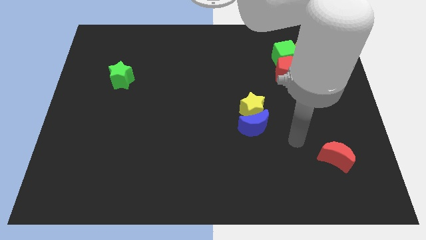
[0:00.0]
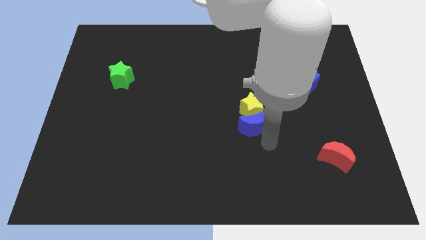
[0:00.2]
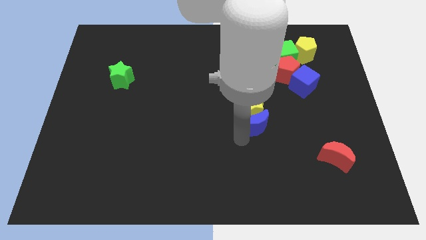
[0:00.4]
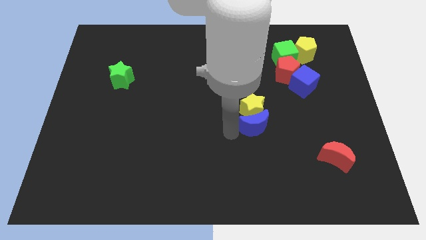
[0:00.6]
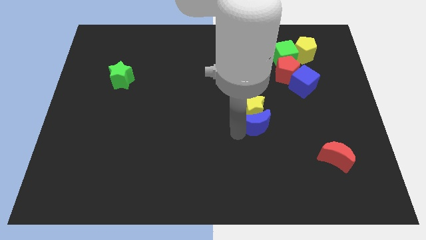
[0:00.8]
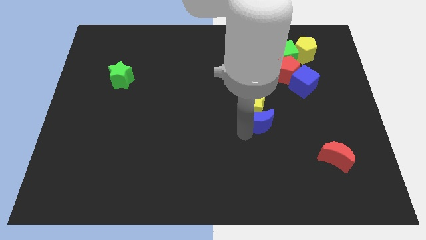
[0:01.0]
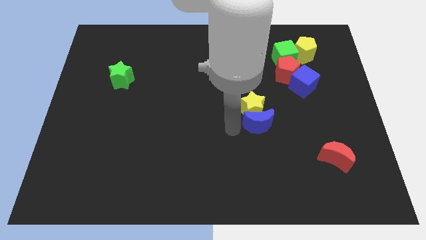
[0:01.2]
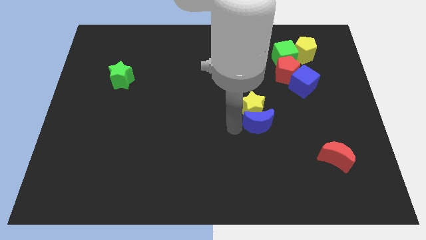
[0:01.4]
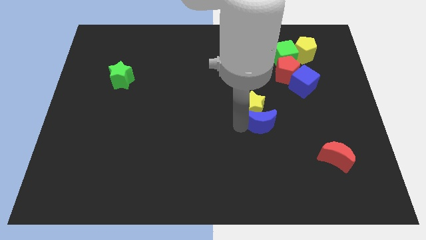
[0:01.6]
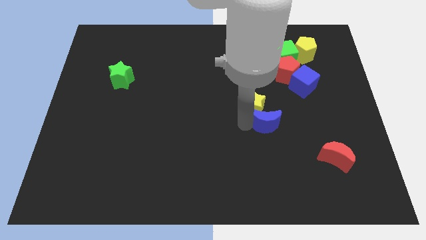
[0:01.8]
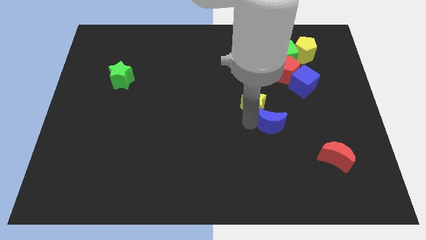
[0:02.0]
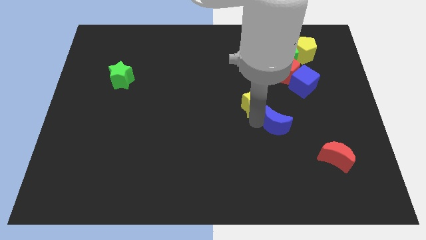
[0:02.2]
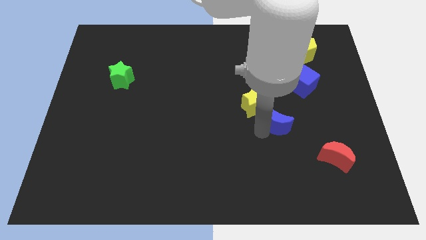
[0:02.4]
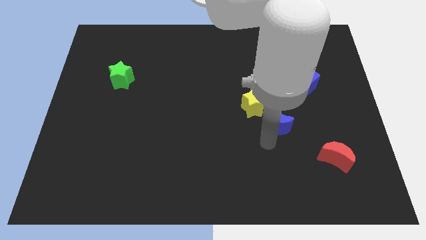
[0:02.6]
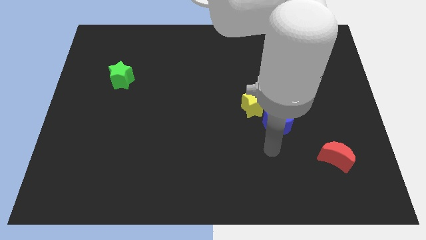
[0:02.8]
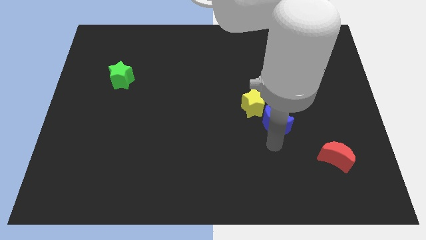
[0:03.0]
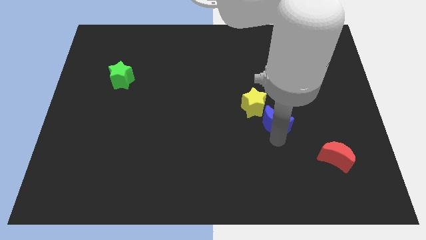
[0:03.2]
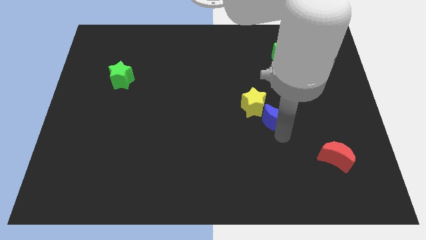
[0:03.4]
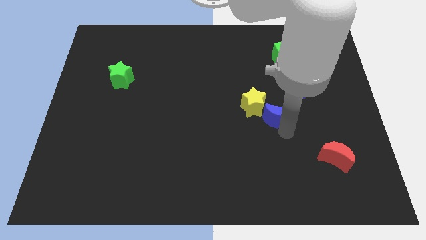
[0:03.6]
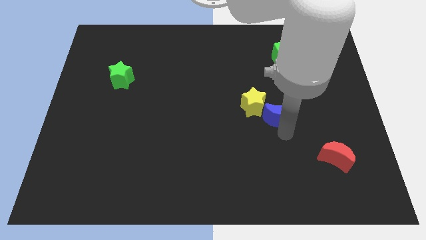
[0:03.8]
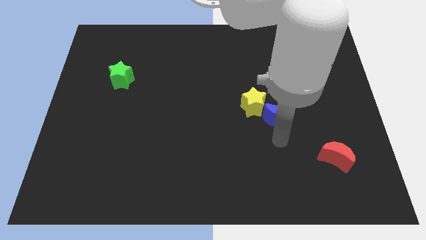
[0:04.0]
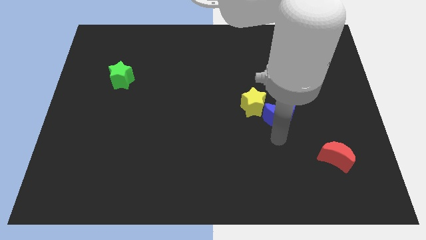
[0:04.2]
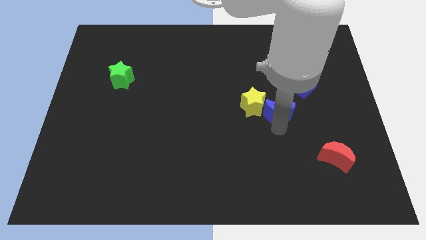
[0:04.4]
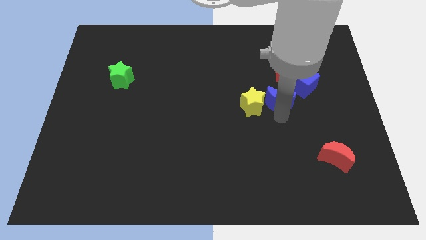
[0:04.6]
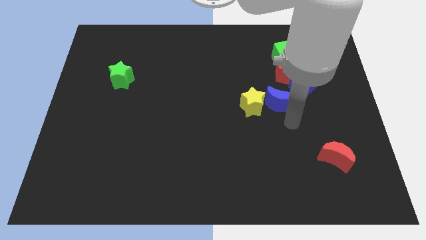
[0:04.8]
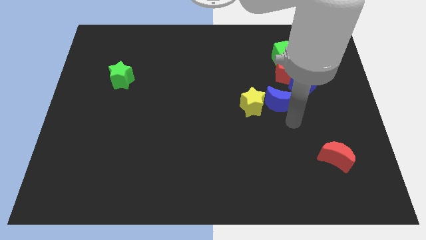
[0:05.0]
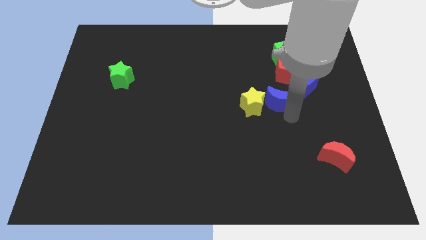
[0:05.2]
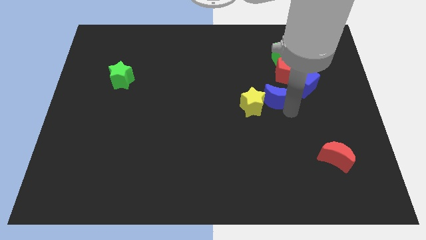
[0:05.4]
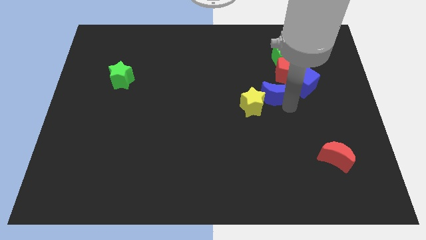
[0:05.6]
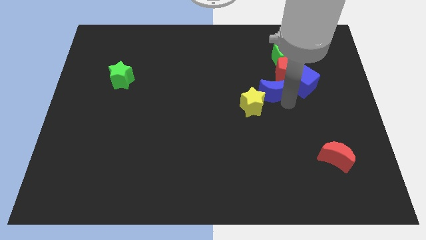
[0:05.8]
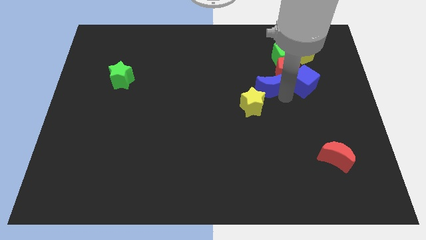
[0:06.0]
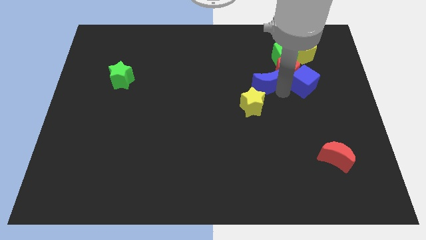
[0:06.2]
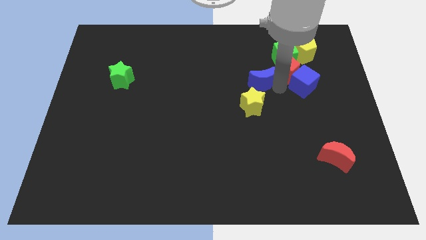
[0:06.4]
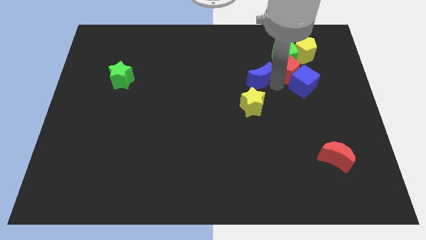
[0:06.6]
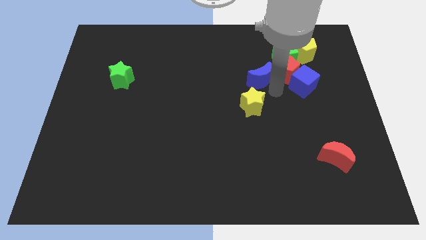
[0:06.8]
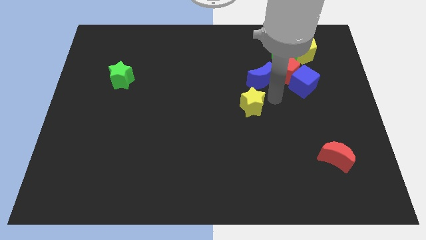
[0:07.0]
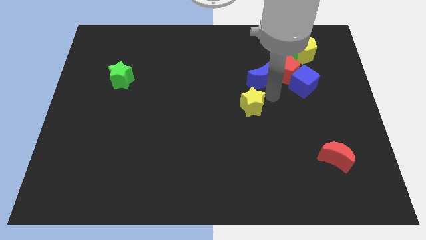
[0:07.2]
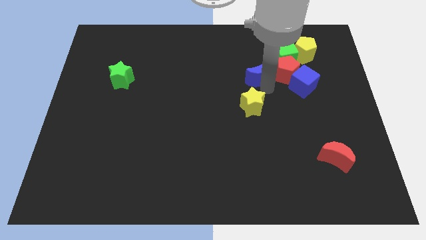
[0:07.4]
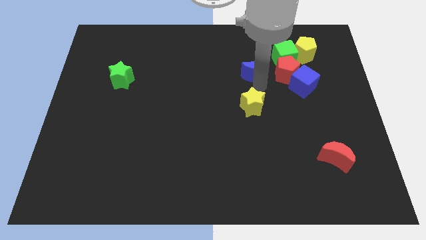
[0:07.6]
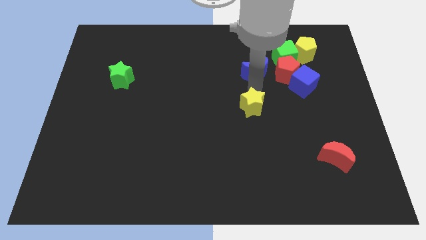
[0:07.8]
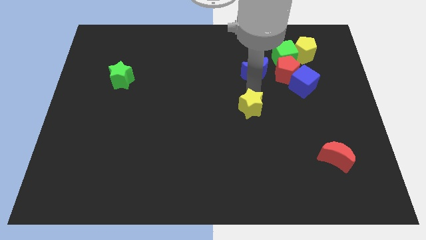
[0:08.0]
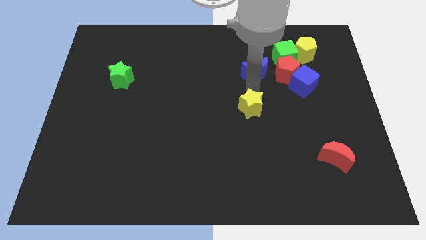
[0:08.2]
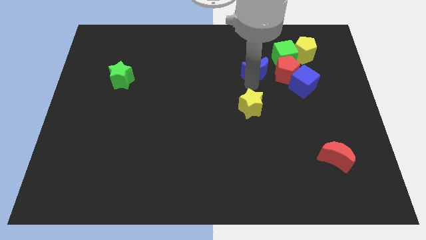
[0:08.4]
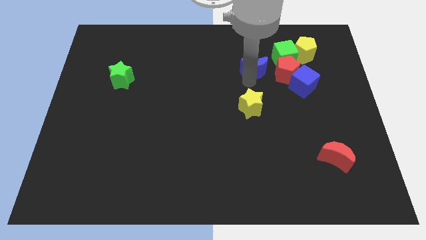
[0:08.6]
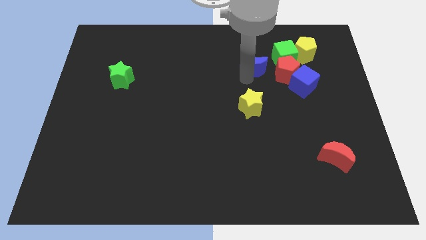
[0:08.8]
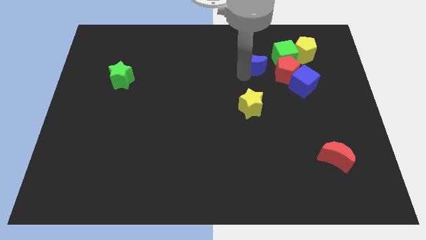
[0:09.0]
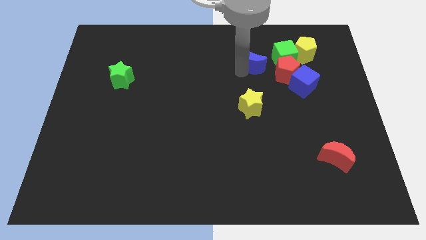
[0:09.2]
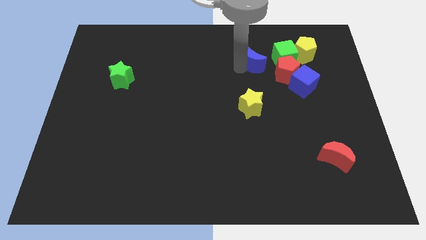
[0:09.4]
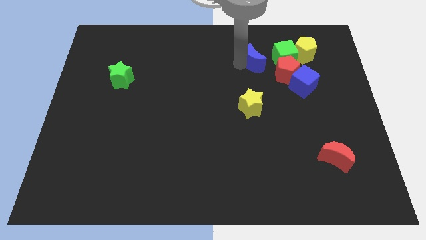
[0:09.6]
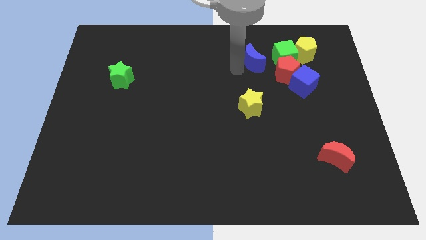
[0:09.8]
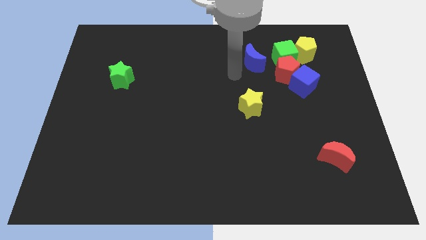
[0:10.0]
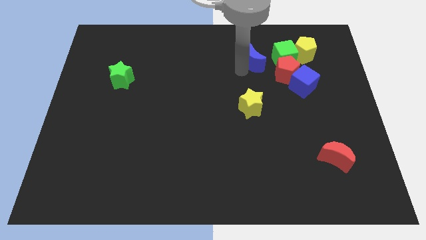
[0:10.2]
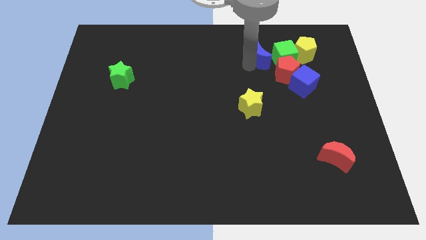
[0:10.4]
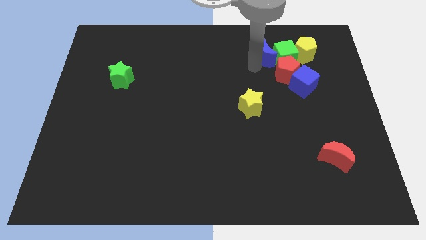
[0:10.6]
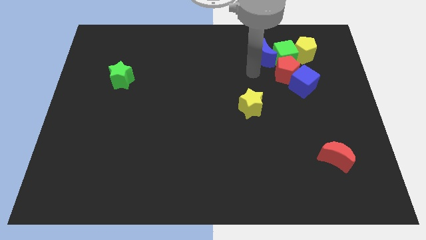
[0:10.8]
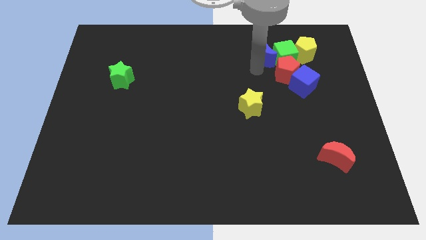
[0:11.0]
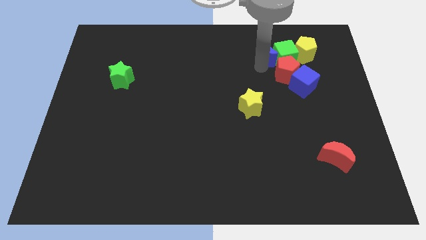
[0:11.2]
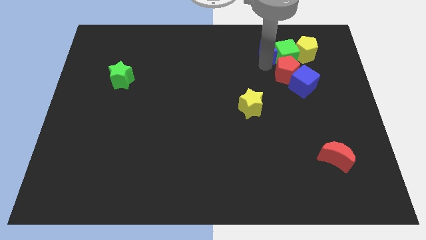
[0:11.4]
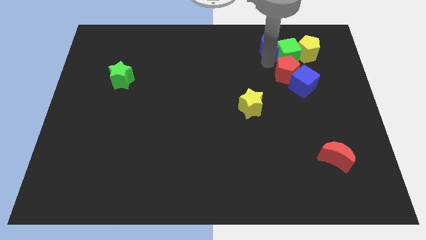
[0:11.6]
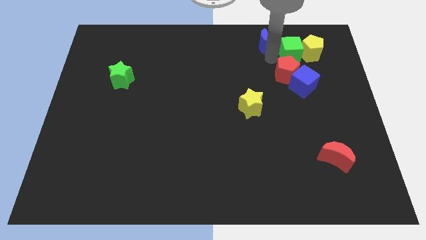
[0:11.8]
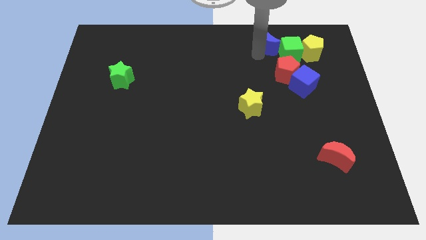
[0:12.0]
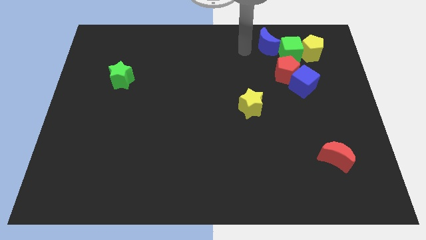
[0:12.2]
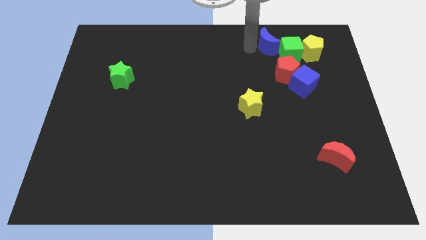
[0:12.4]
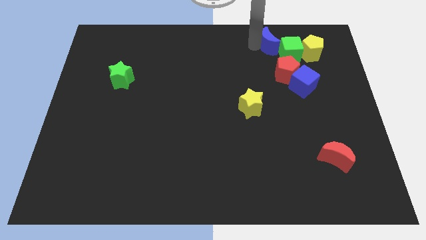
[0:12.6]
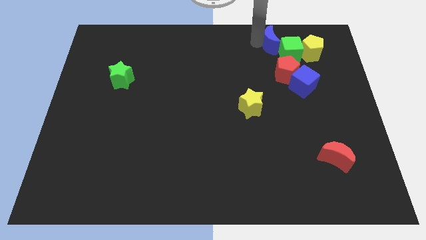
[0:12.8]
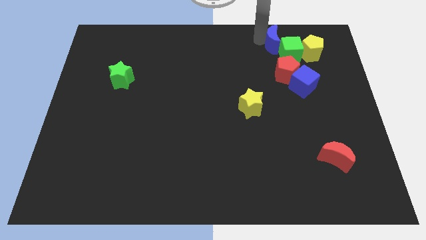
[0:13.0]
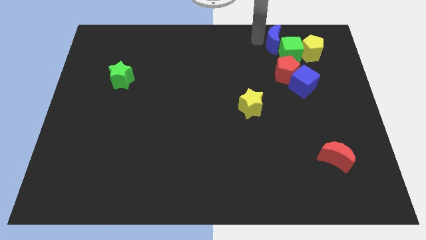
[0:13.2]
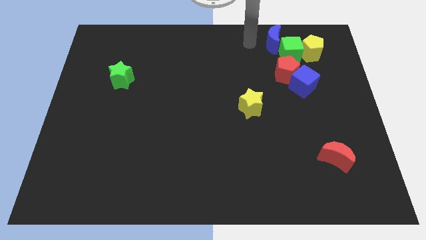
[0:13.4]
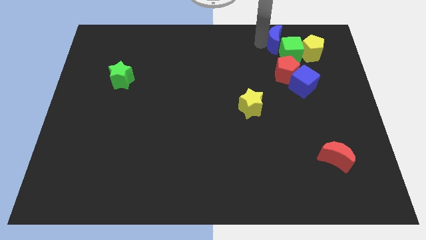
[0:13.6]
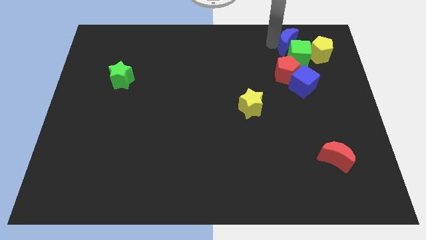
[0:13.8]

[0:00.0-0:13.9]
slide the blue moon above the blue cube

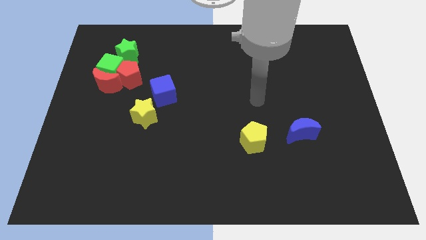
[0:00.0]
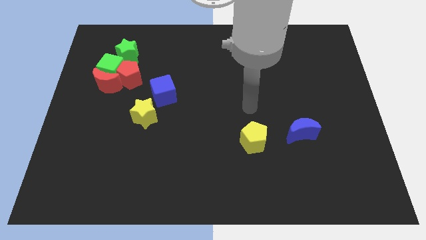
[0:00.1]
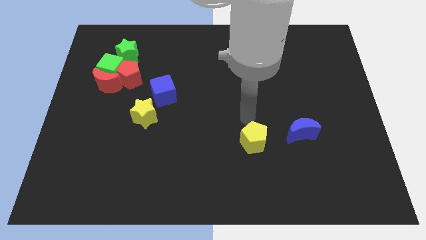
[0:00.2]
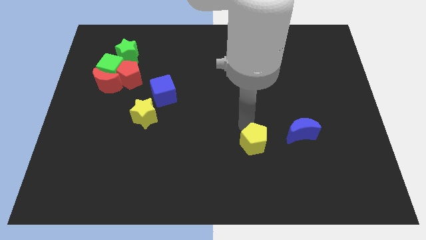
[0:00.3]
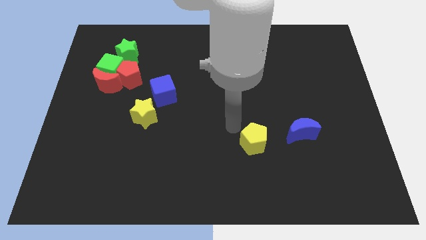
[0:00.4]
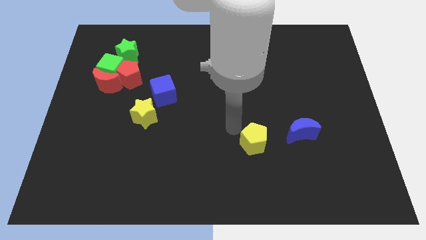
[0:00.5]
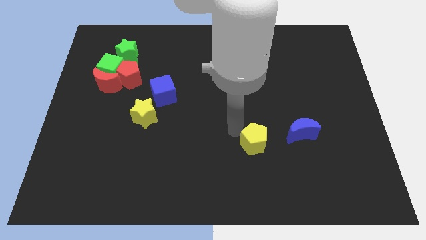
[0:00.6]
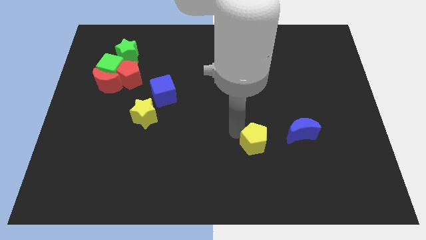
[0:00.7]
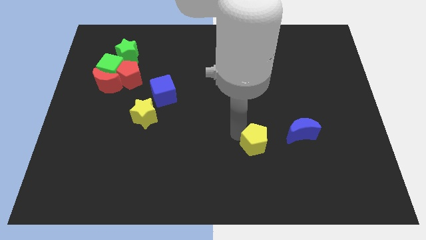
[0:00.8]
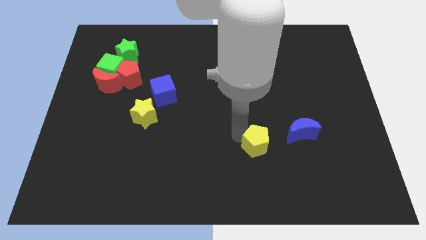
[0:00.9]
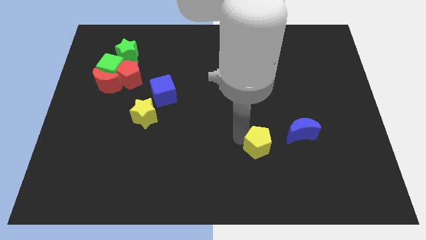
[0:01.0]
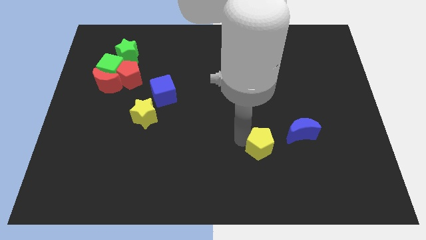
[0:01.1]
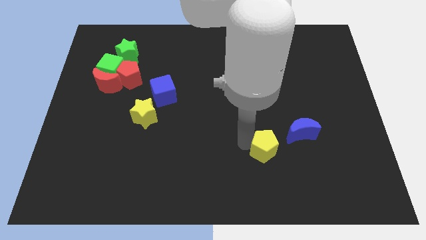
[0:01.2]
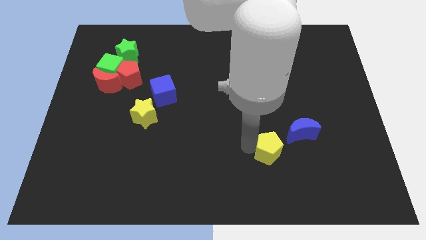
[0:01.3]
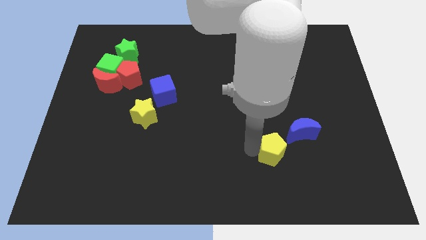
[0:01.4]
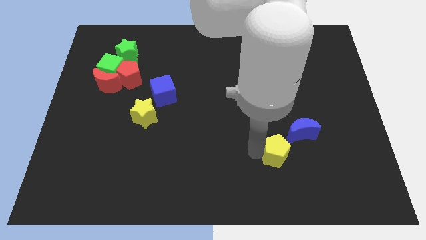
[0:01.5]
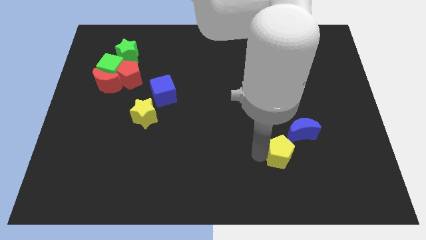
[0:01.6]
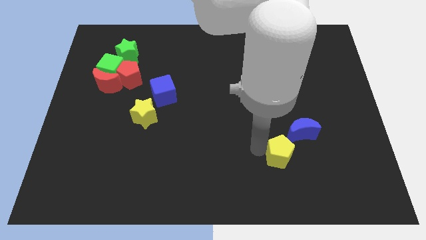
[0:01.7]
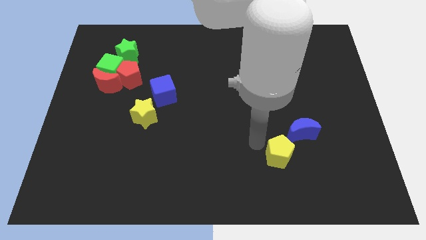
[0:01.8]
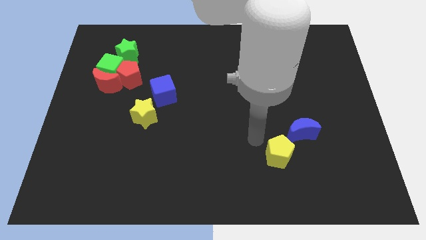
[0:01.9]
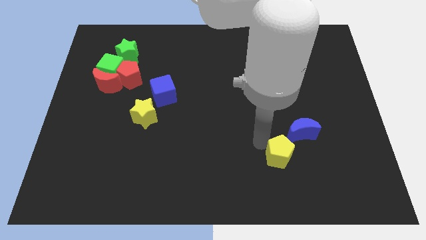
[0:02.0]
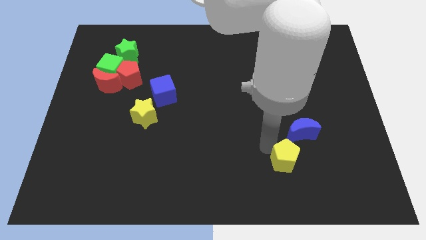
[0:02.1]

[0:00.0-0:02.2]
push the yellow pentagon below the blue moon
